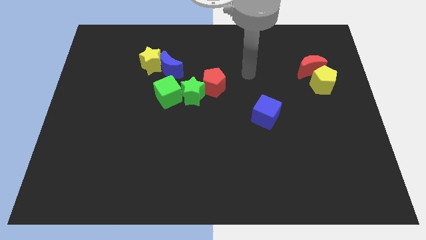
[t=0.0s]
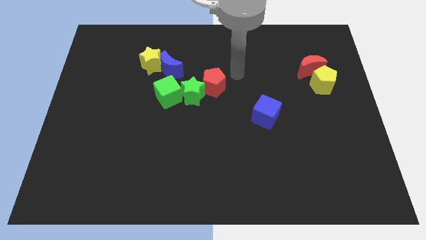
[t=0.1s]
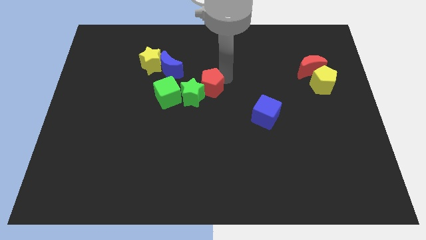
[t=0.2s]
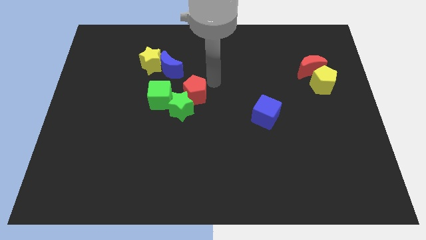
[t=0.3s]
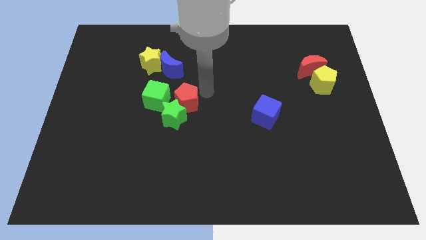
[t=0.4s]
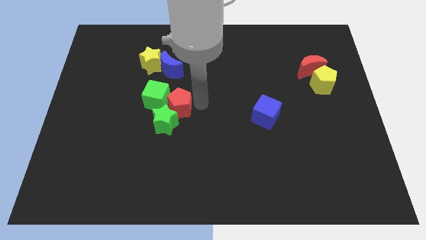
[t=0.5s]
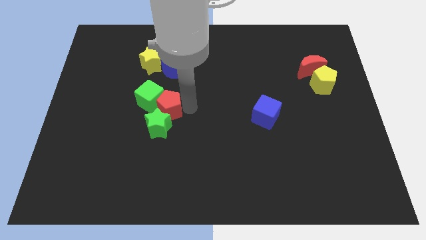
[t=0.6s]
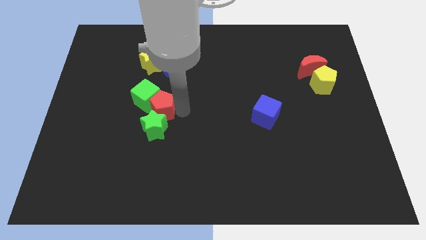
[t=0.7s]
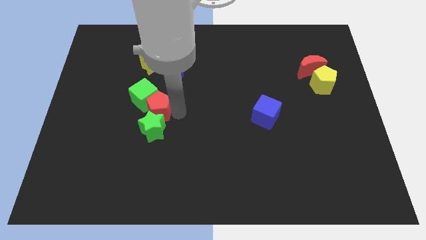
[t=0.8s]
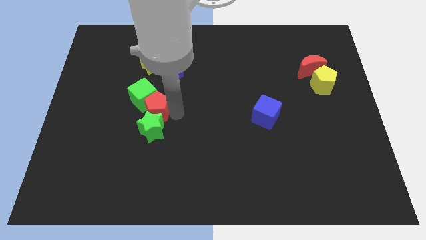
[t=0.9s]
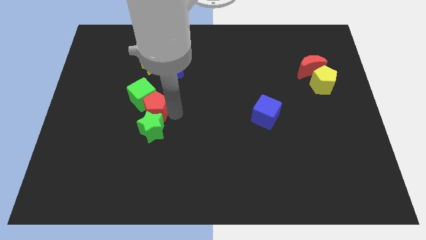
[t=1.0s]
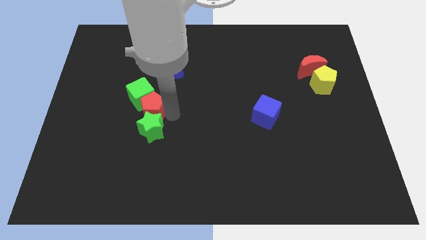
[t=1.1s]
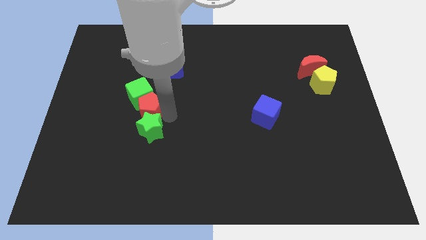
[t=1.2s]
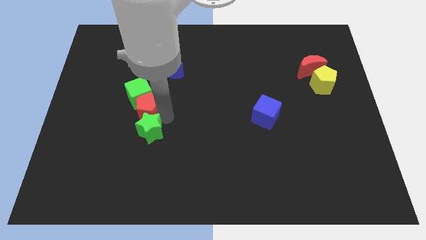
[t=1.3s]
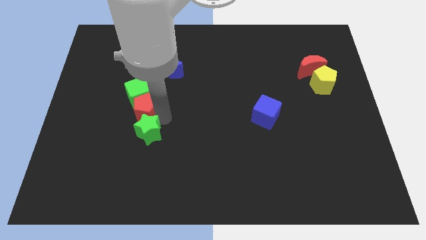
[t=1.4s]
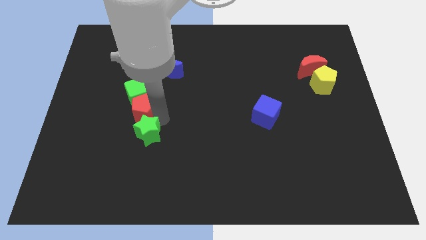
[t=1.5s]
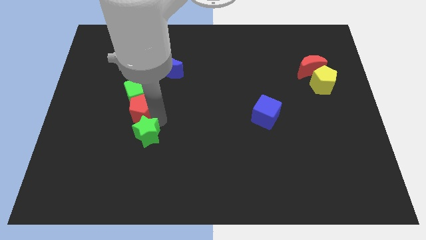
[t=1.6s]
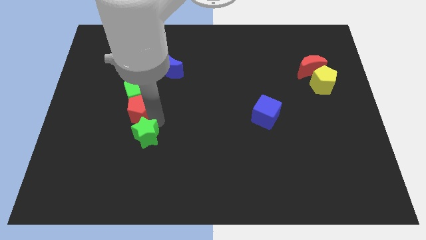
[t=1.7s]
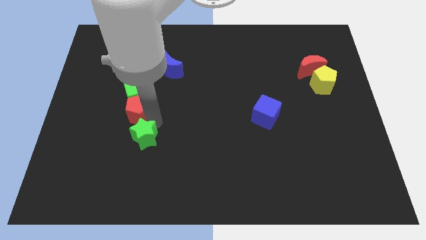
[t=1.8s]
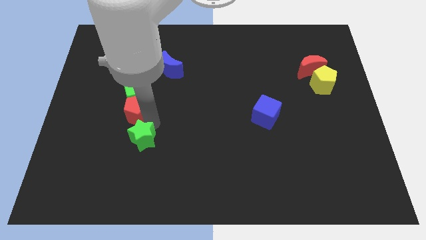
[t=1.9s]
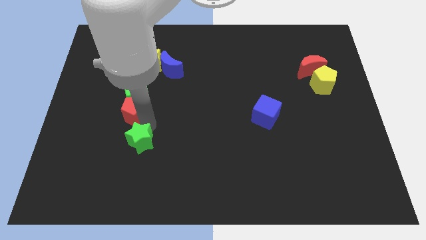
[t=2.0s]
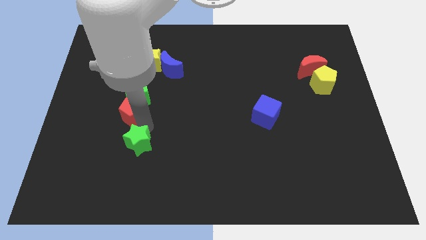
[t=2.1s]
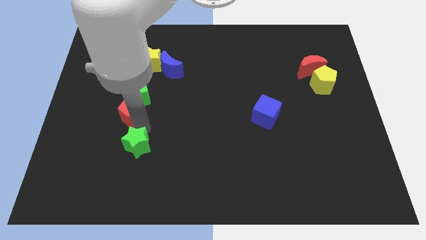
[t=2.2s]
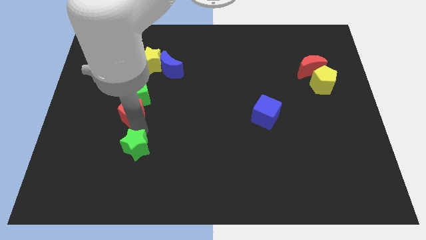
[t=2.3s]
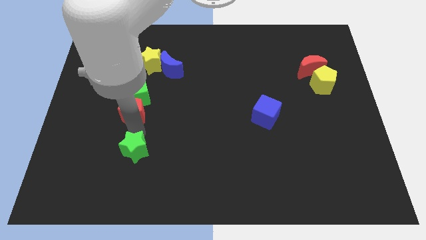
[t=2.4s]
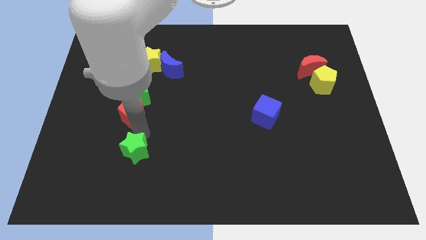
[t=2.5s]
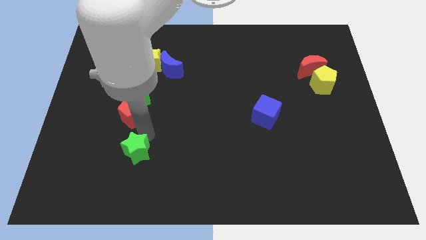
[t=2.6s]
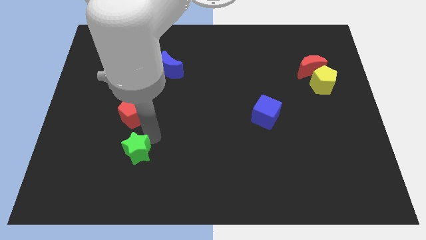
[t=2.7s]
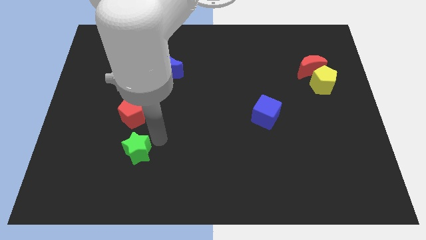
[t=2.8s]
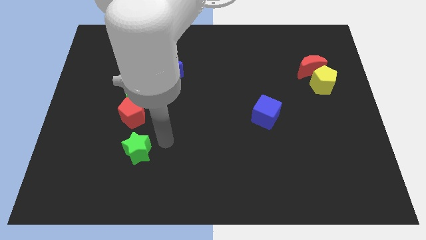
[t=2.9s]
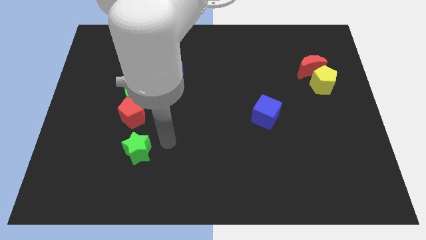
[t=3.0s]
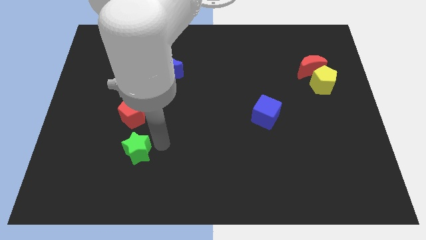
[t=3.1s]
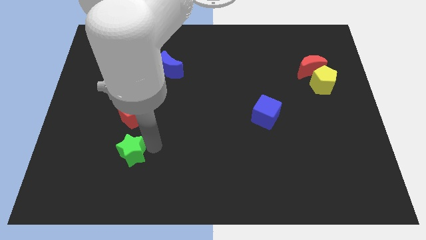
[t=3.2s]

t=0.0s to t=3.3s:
slide the green star down and left

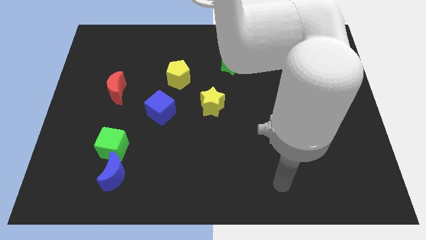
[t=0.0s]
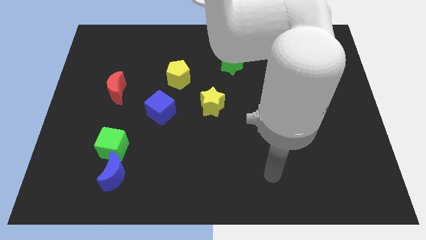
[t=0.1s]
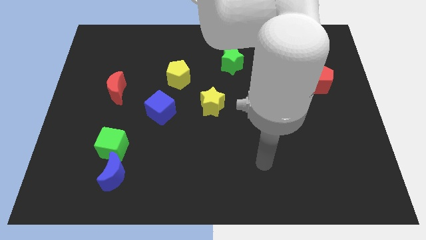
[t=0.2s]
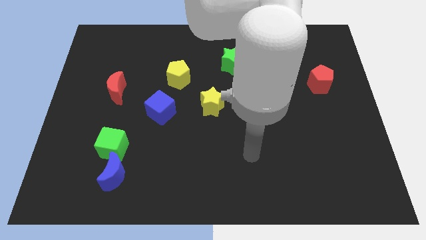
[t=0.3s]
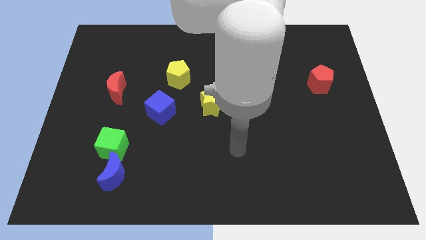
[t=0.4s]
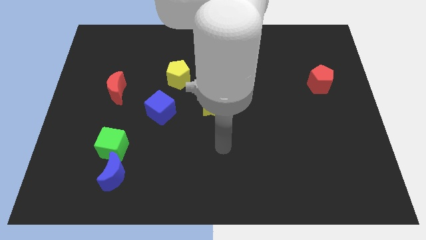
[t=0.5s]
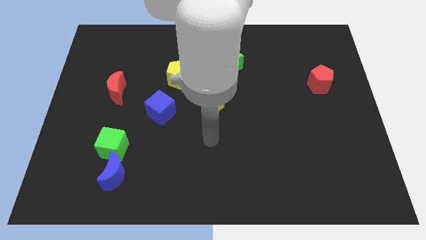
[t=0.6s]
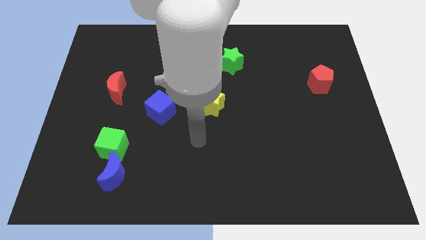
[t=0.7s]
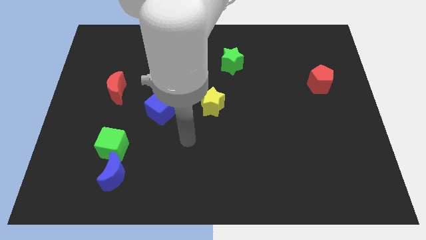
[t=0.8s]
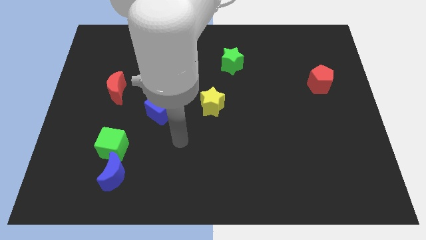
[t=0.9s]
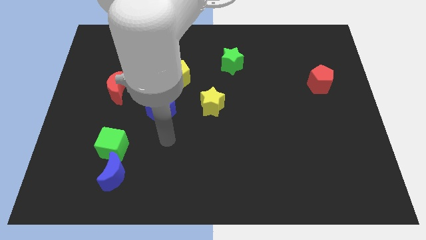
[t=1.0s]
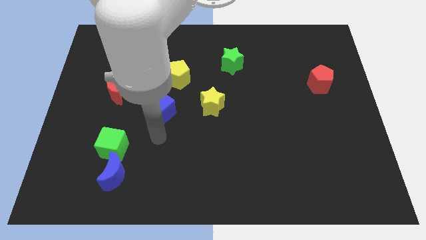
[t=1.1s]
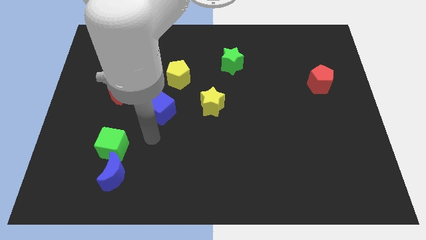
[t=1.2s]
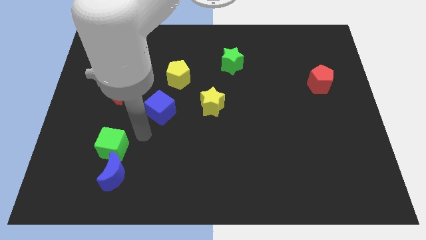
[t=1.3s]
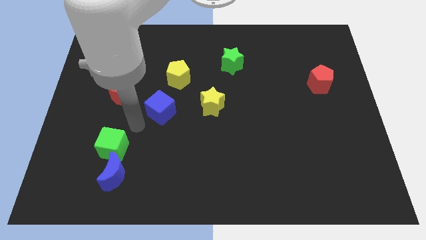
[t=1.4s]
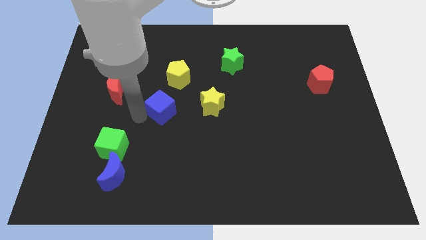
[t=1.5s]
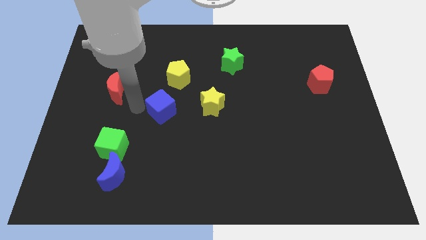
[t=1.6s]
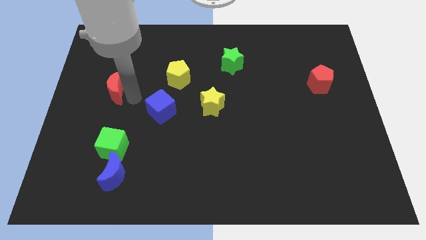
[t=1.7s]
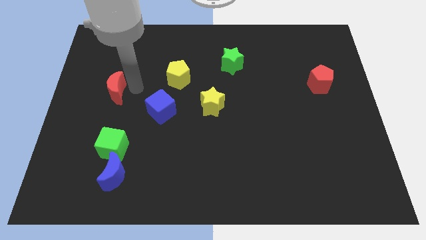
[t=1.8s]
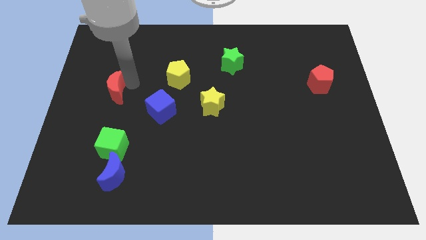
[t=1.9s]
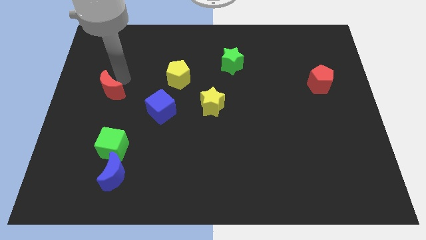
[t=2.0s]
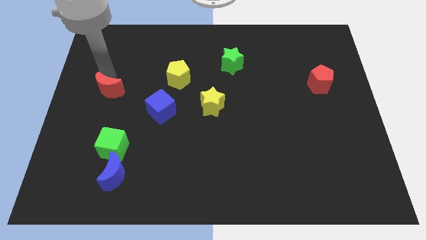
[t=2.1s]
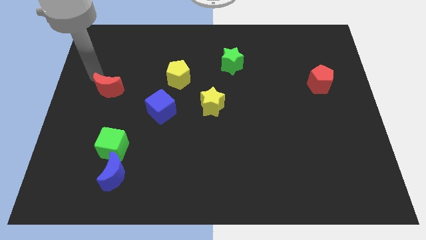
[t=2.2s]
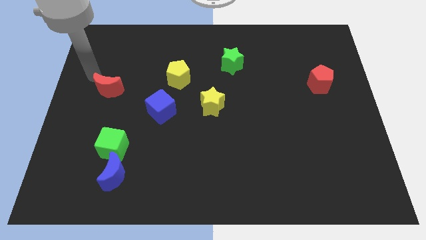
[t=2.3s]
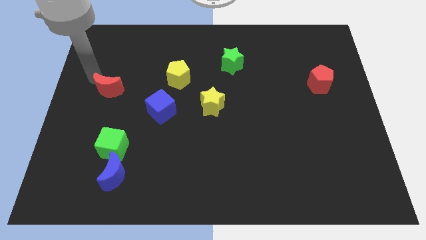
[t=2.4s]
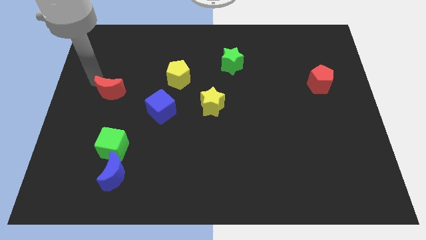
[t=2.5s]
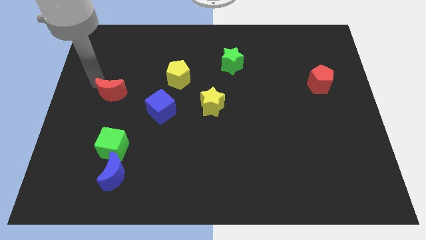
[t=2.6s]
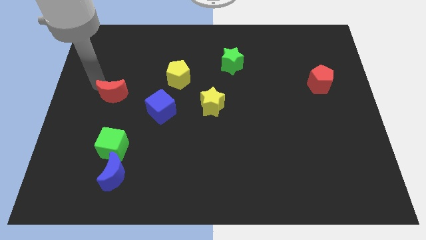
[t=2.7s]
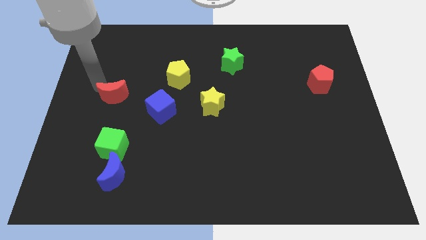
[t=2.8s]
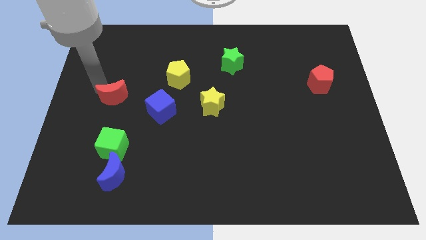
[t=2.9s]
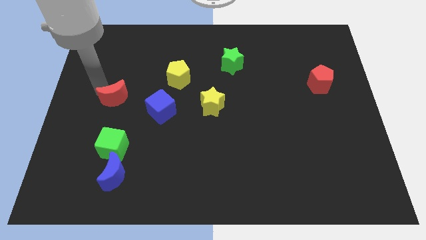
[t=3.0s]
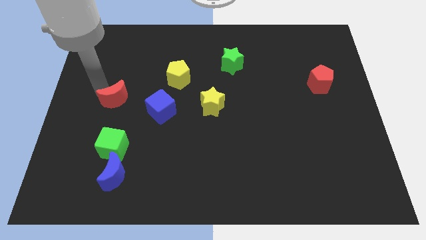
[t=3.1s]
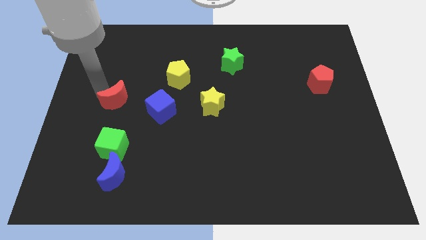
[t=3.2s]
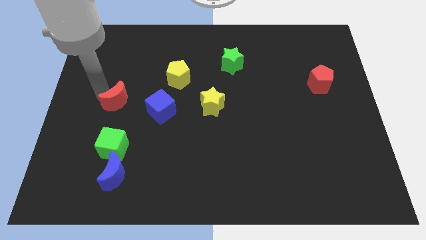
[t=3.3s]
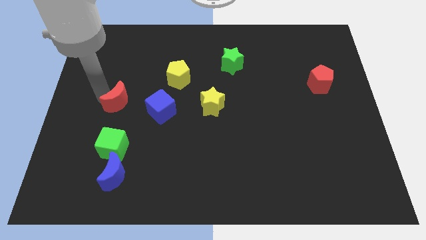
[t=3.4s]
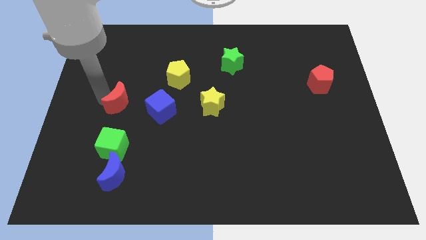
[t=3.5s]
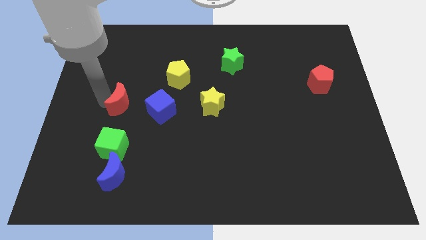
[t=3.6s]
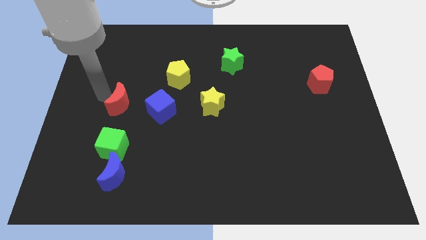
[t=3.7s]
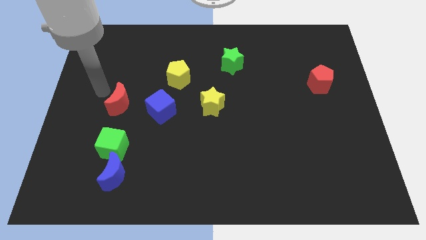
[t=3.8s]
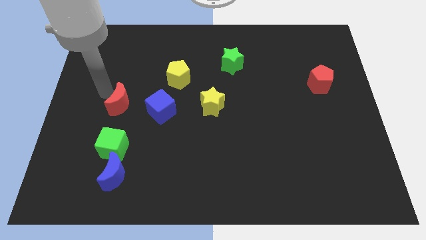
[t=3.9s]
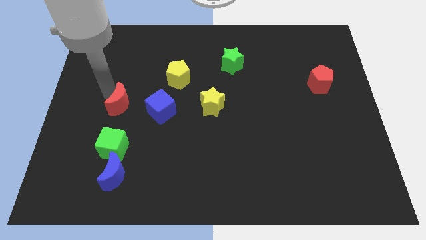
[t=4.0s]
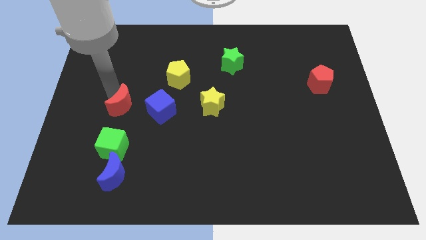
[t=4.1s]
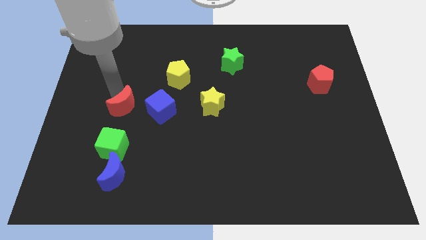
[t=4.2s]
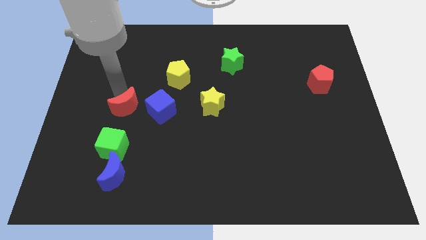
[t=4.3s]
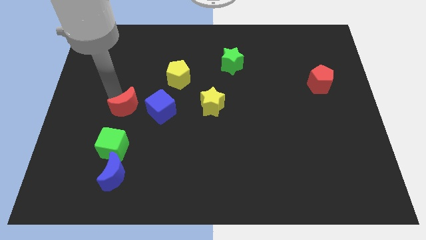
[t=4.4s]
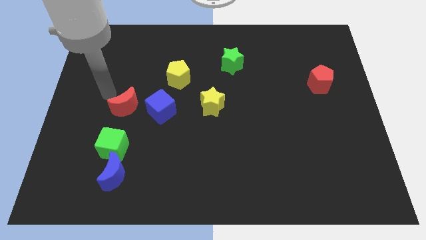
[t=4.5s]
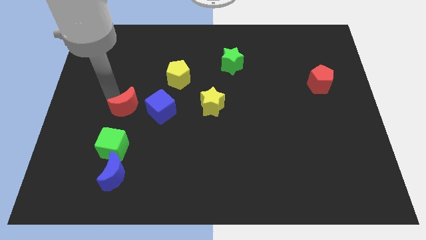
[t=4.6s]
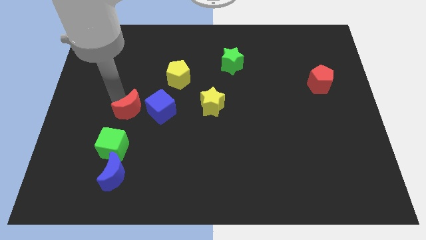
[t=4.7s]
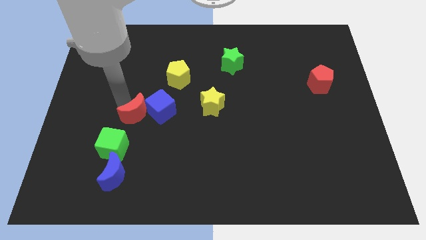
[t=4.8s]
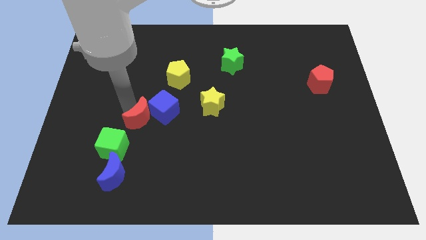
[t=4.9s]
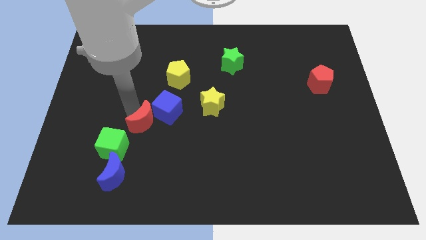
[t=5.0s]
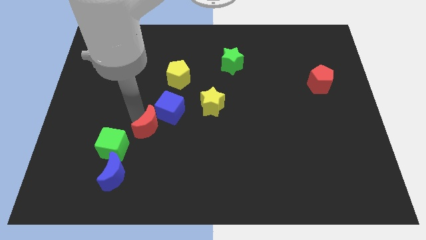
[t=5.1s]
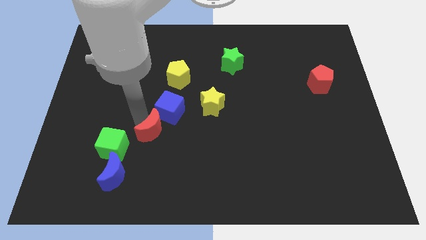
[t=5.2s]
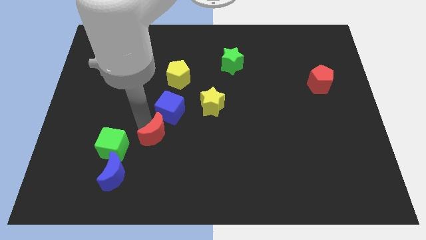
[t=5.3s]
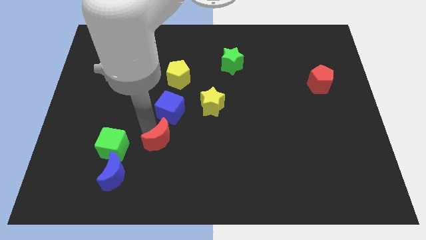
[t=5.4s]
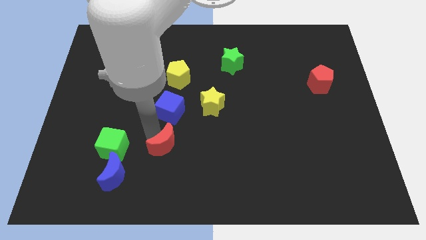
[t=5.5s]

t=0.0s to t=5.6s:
slide the red moon down and then to the right
